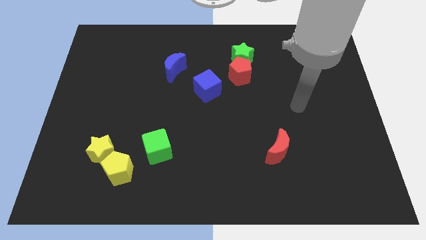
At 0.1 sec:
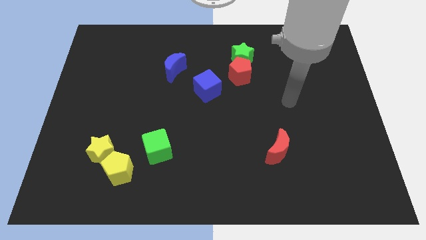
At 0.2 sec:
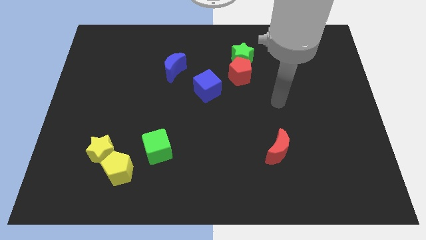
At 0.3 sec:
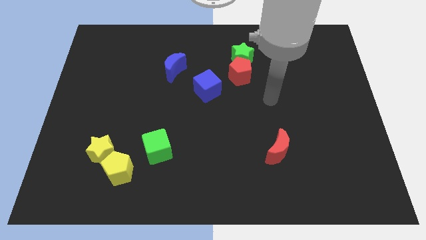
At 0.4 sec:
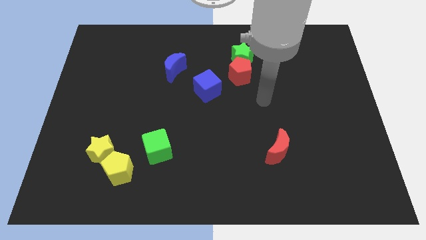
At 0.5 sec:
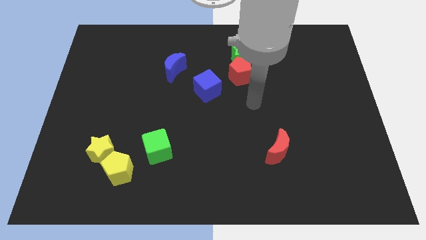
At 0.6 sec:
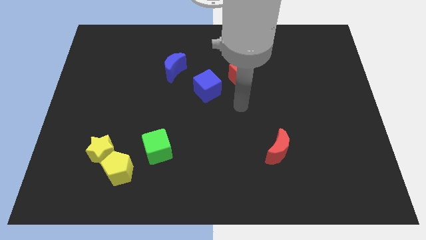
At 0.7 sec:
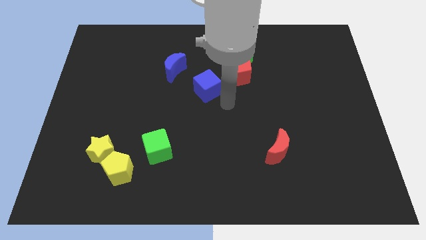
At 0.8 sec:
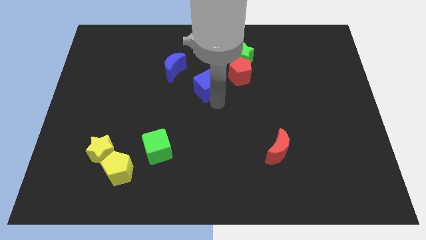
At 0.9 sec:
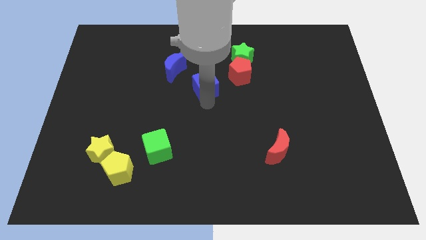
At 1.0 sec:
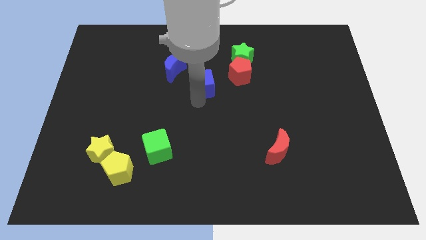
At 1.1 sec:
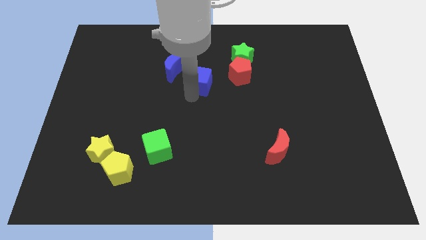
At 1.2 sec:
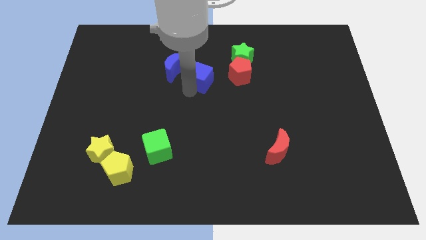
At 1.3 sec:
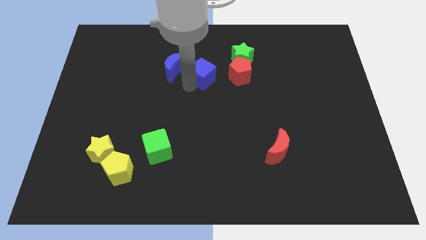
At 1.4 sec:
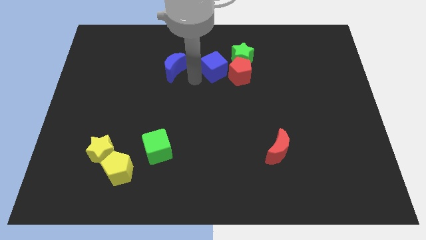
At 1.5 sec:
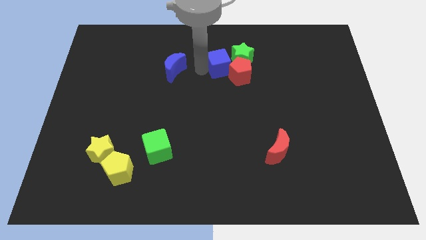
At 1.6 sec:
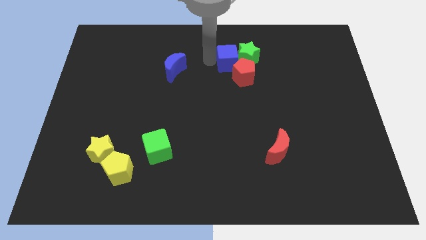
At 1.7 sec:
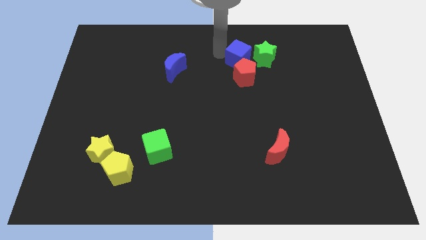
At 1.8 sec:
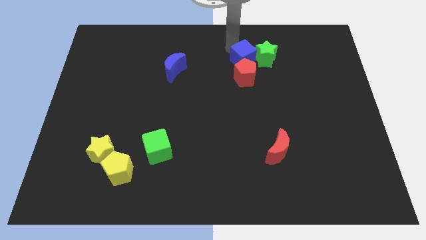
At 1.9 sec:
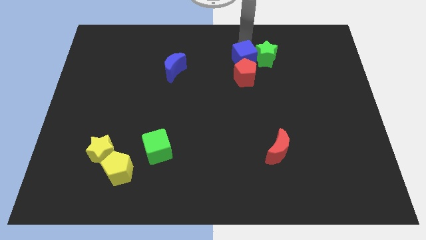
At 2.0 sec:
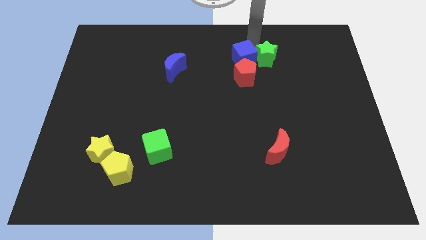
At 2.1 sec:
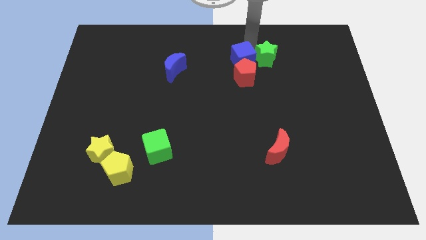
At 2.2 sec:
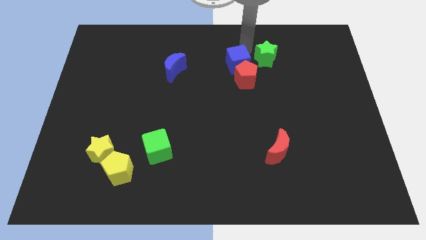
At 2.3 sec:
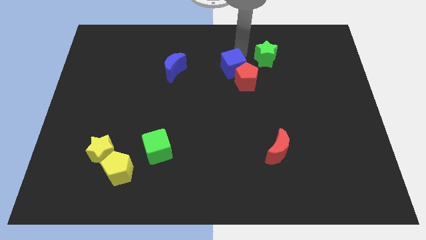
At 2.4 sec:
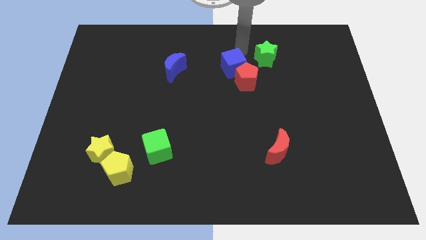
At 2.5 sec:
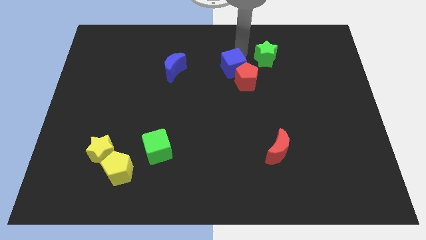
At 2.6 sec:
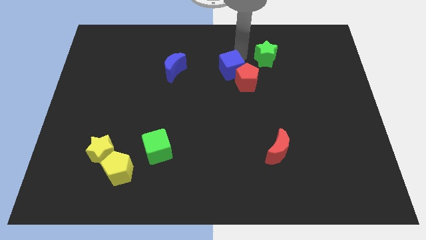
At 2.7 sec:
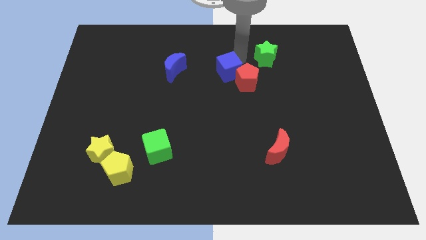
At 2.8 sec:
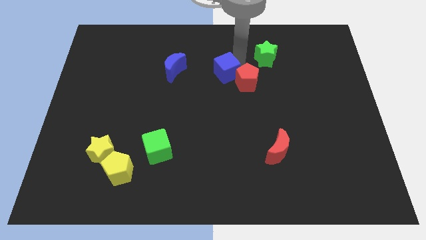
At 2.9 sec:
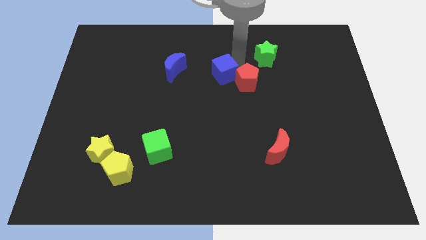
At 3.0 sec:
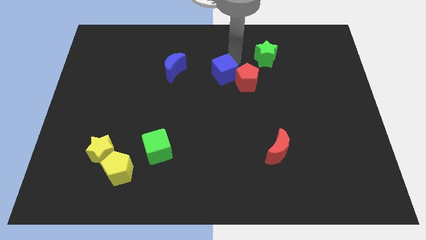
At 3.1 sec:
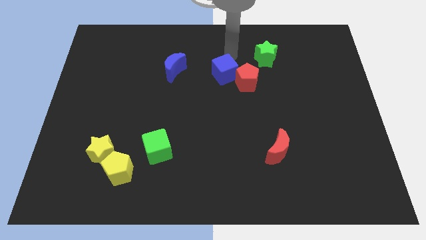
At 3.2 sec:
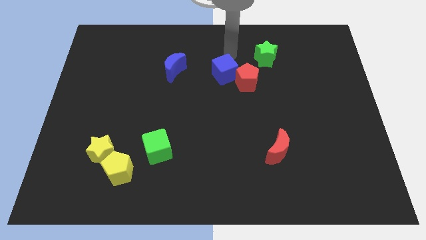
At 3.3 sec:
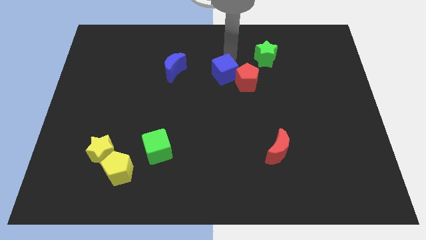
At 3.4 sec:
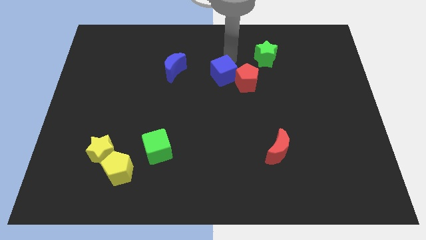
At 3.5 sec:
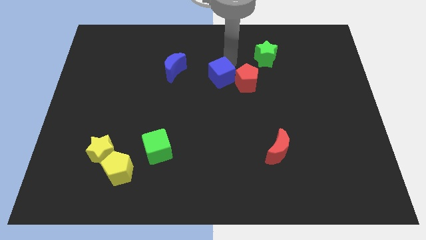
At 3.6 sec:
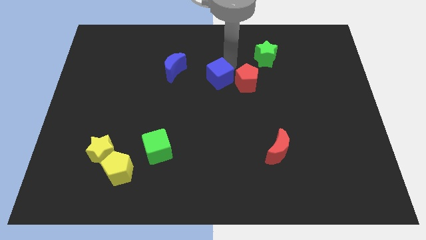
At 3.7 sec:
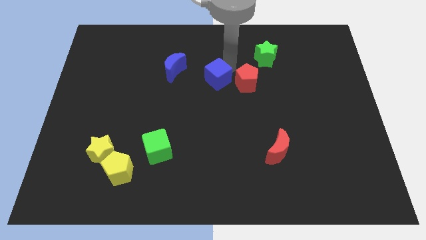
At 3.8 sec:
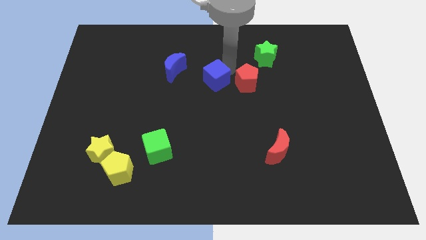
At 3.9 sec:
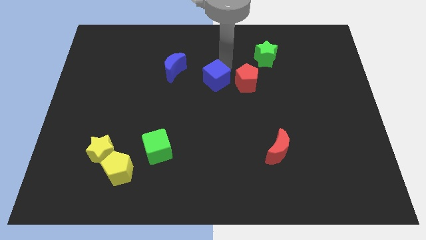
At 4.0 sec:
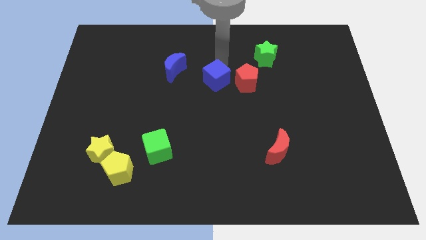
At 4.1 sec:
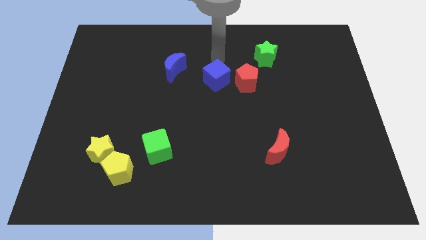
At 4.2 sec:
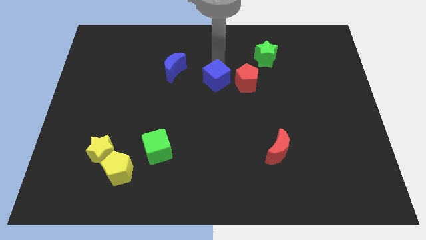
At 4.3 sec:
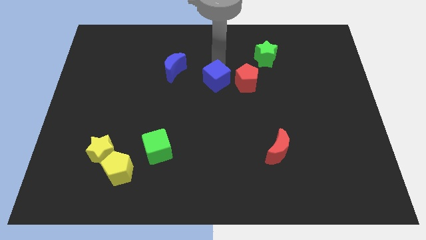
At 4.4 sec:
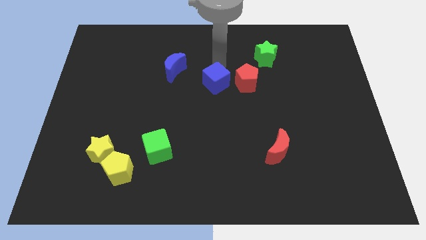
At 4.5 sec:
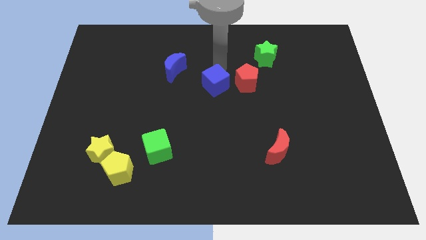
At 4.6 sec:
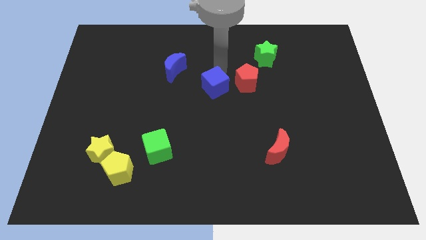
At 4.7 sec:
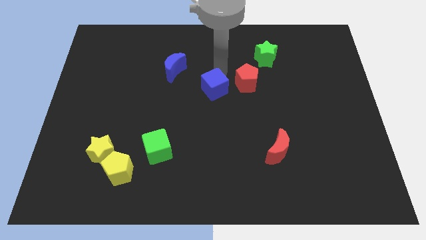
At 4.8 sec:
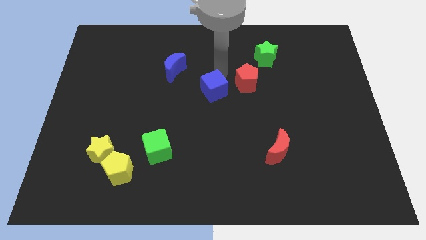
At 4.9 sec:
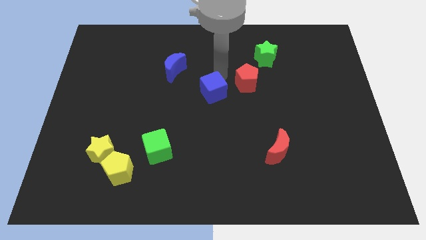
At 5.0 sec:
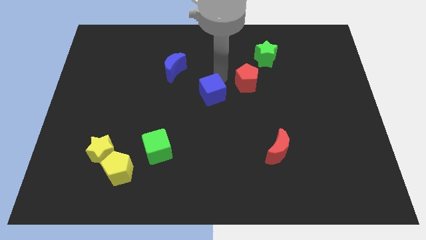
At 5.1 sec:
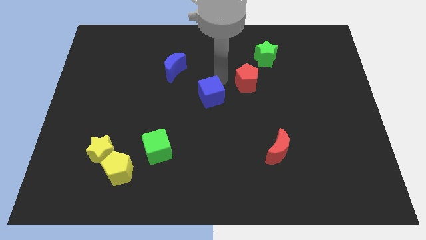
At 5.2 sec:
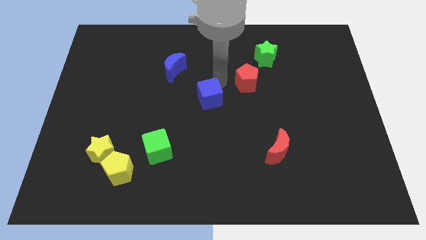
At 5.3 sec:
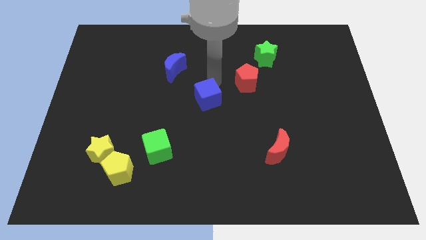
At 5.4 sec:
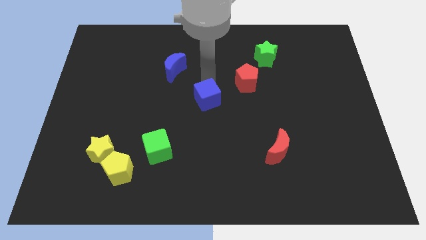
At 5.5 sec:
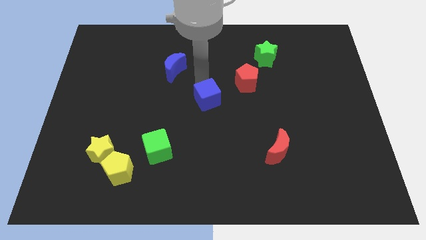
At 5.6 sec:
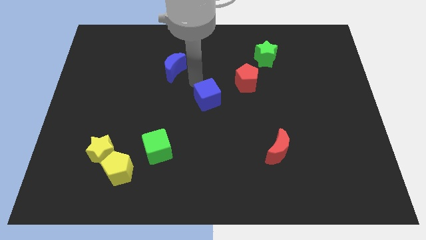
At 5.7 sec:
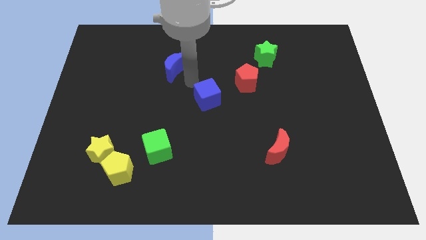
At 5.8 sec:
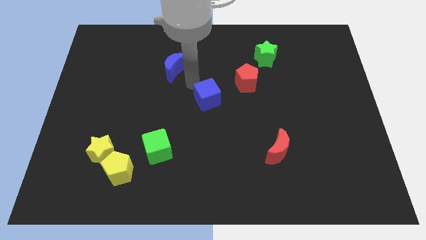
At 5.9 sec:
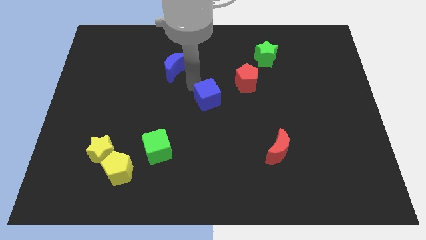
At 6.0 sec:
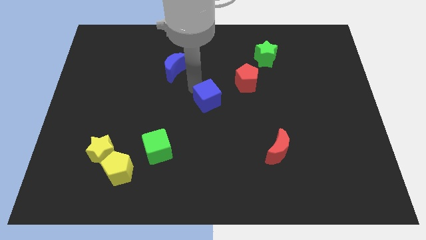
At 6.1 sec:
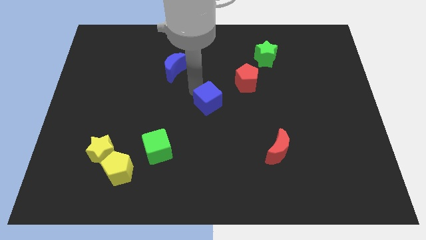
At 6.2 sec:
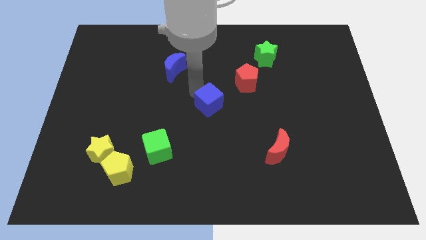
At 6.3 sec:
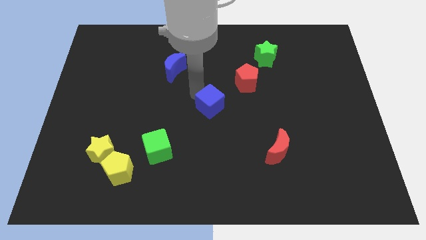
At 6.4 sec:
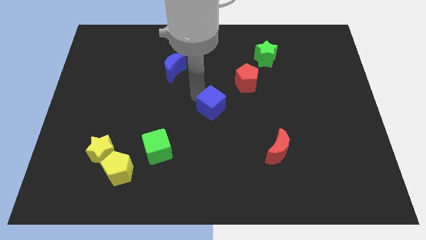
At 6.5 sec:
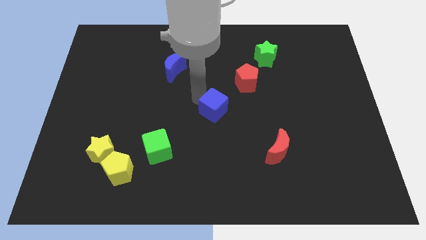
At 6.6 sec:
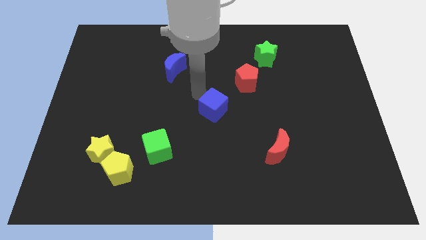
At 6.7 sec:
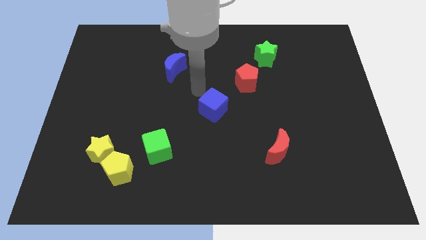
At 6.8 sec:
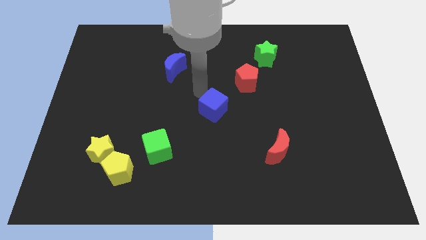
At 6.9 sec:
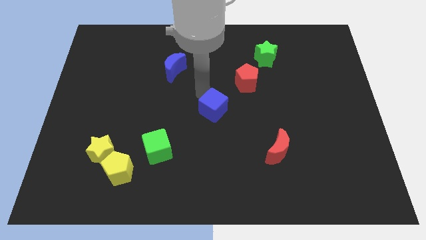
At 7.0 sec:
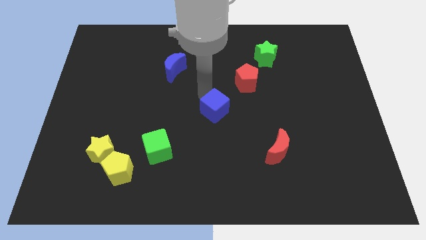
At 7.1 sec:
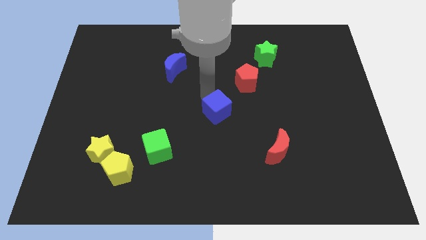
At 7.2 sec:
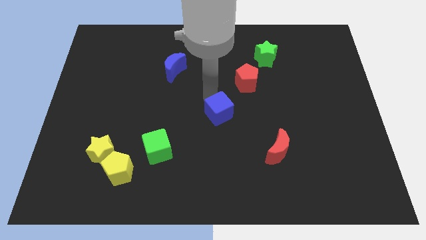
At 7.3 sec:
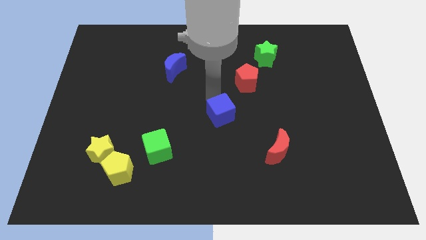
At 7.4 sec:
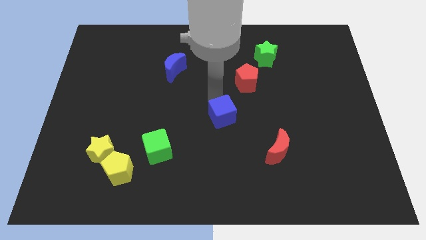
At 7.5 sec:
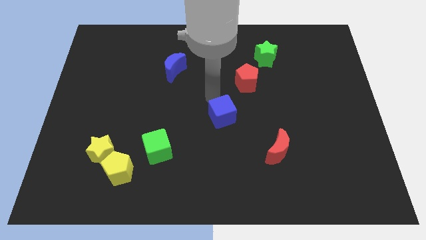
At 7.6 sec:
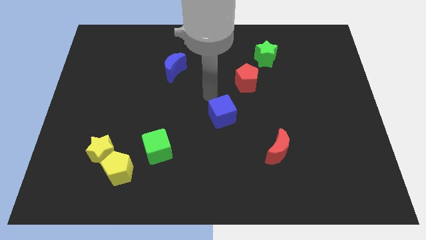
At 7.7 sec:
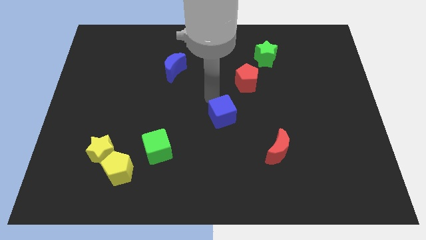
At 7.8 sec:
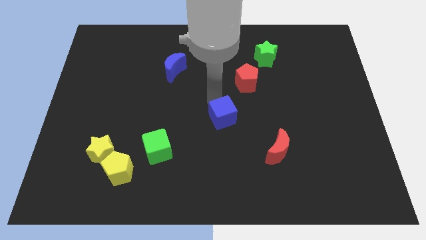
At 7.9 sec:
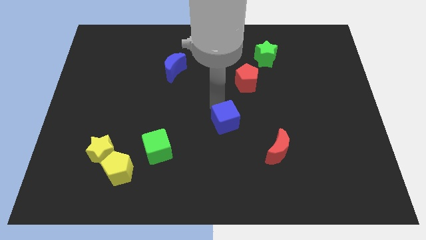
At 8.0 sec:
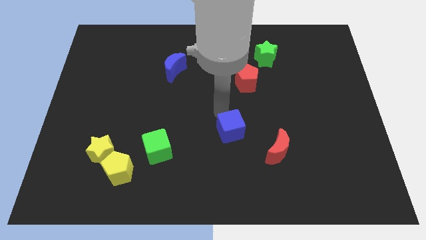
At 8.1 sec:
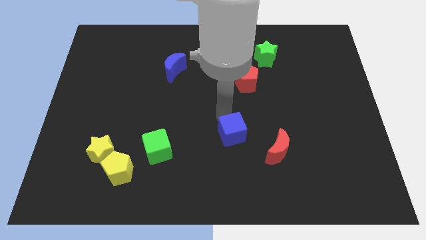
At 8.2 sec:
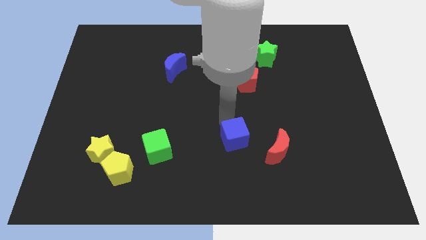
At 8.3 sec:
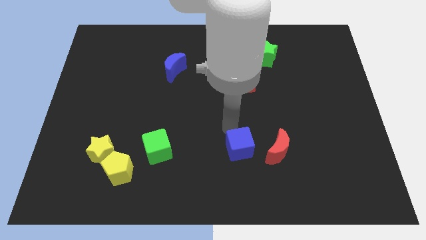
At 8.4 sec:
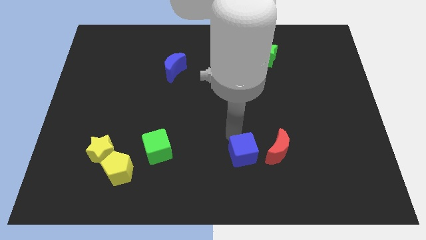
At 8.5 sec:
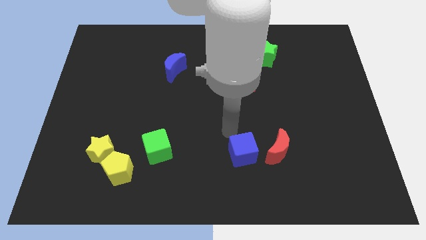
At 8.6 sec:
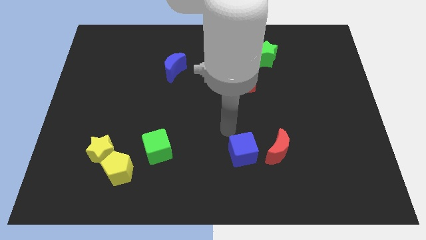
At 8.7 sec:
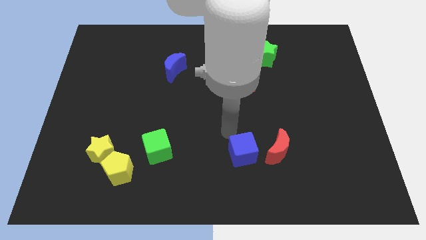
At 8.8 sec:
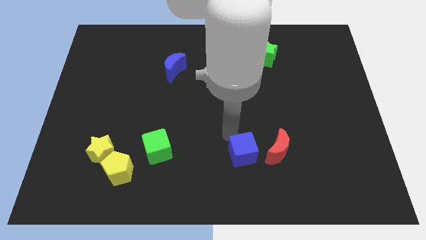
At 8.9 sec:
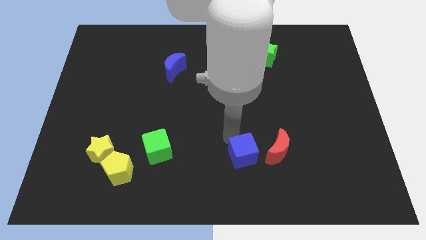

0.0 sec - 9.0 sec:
put the blue cube diagonally down and to the left of the red moon
